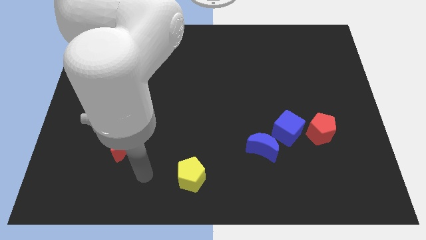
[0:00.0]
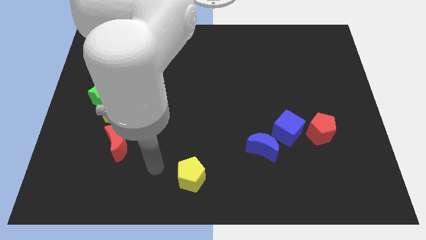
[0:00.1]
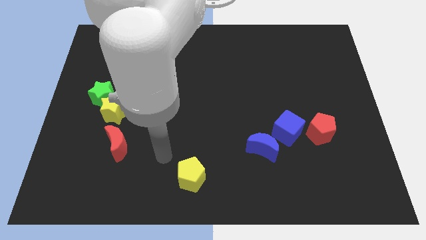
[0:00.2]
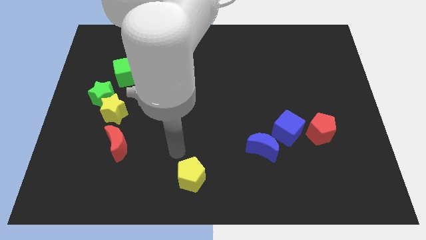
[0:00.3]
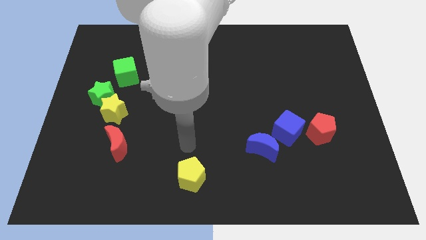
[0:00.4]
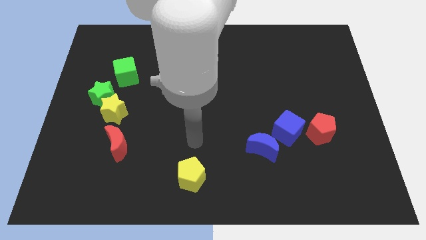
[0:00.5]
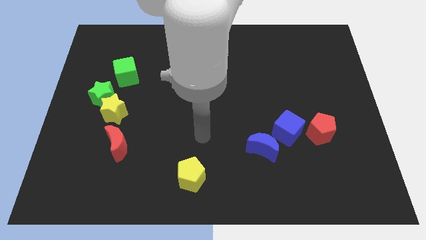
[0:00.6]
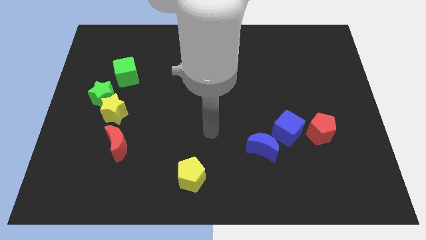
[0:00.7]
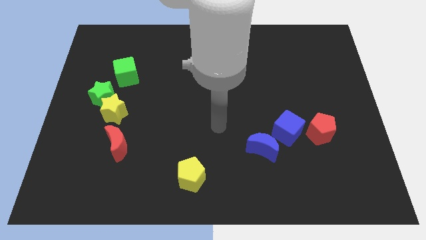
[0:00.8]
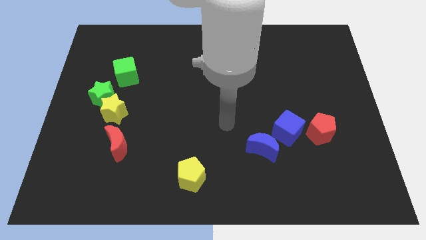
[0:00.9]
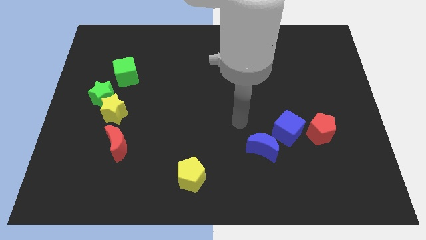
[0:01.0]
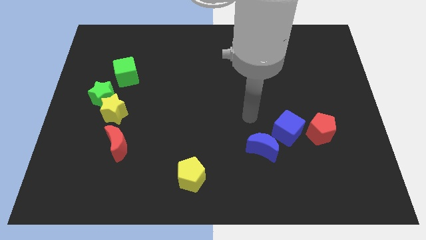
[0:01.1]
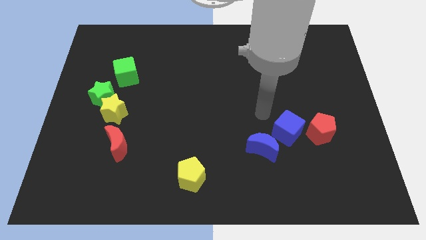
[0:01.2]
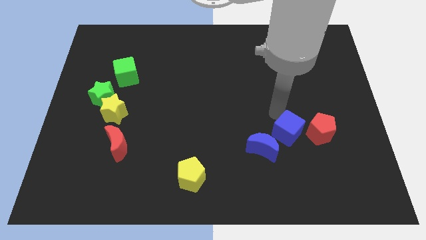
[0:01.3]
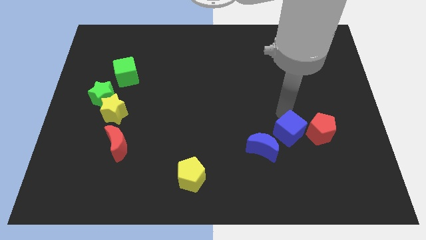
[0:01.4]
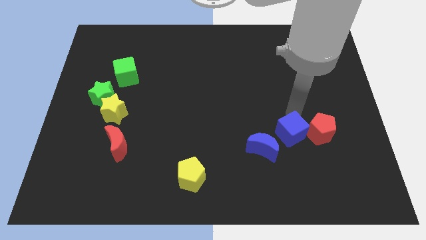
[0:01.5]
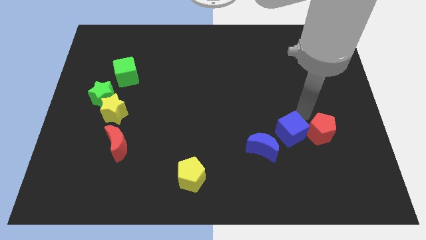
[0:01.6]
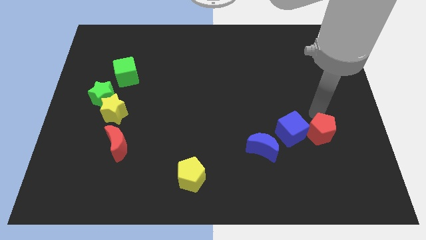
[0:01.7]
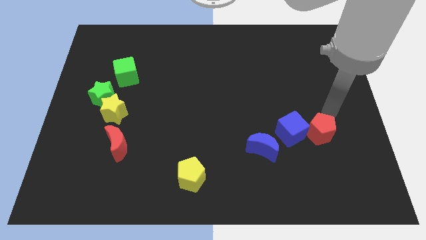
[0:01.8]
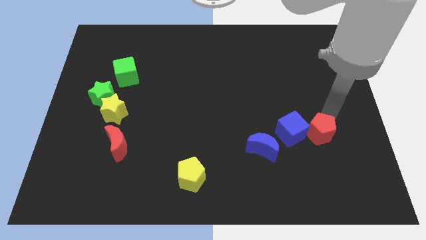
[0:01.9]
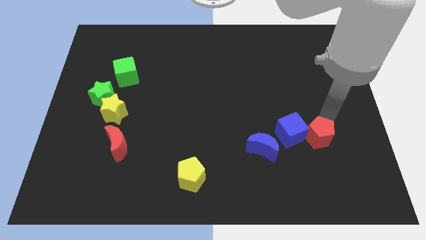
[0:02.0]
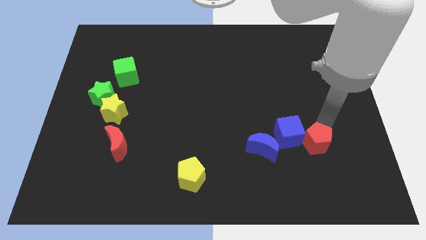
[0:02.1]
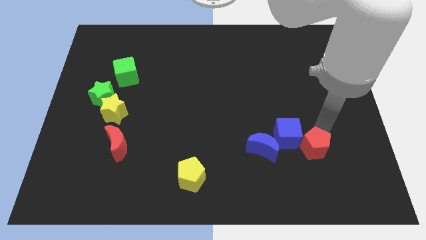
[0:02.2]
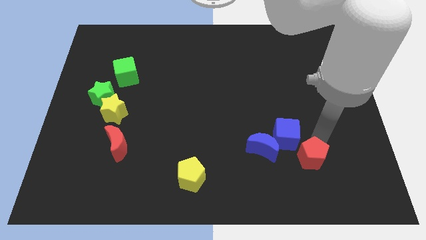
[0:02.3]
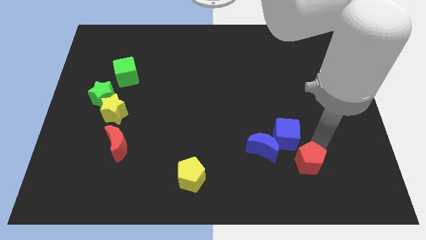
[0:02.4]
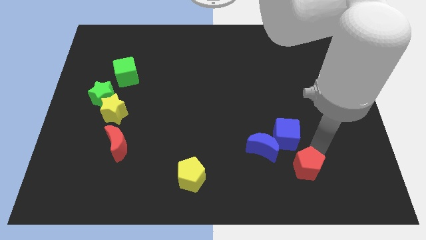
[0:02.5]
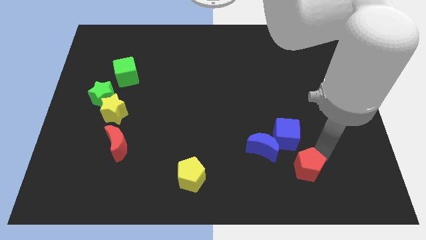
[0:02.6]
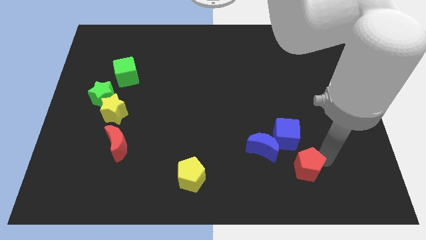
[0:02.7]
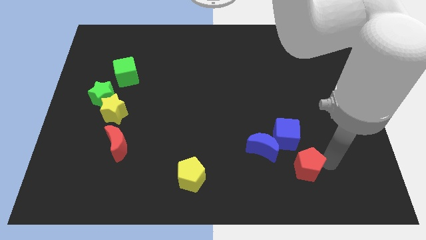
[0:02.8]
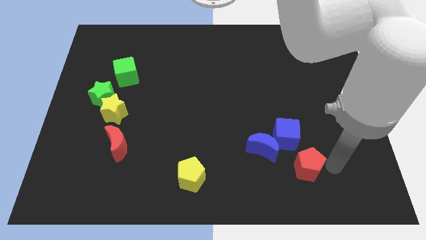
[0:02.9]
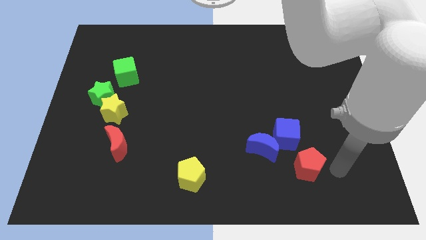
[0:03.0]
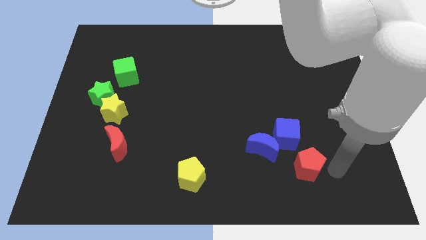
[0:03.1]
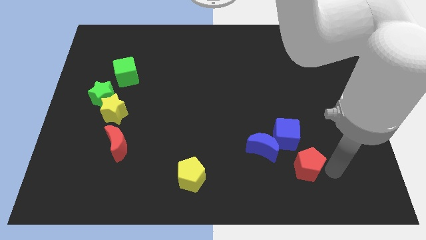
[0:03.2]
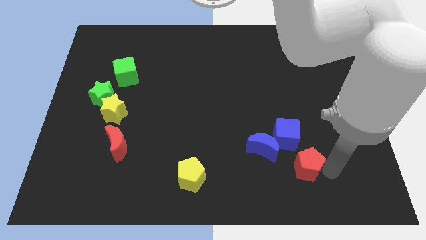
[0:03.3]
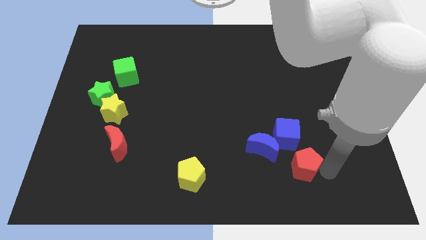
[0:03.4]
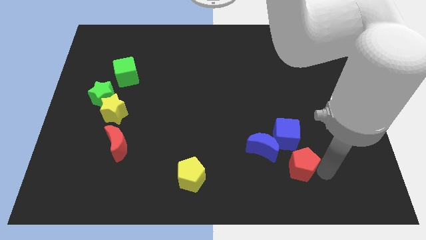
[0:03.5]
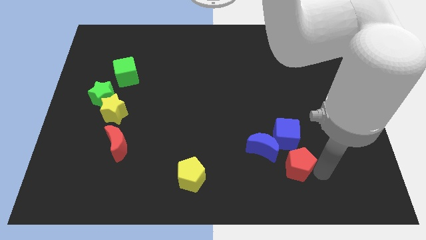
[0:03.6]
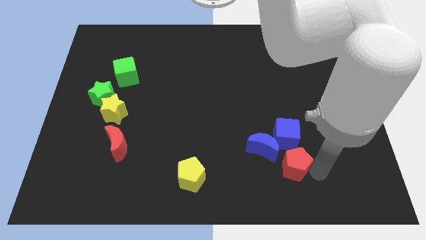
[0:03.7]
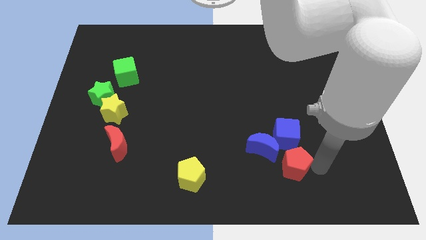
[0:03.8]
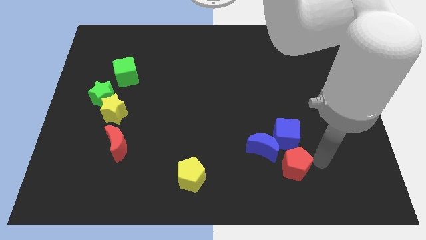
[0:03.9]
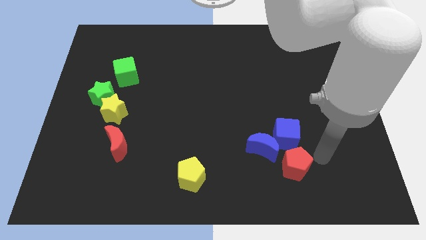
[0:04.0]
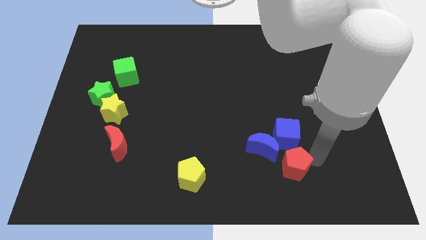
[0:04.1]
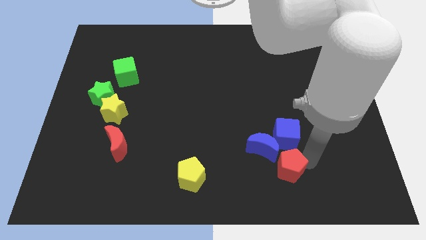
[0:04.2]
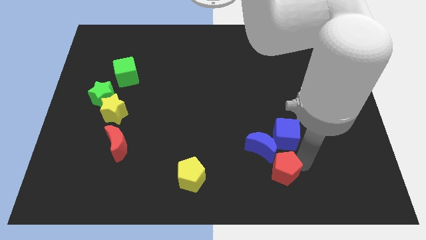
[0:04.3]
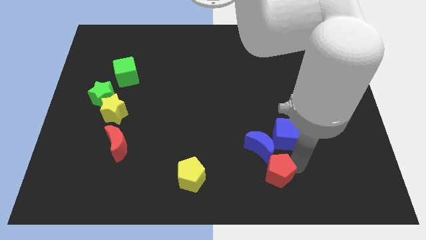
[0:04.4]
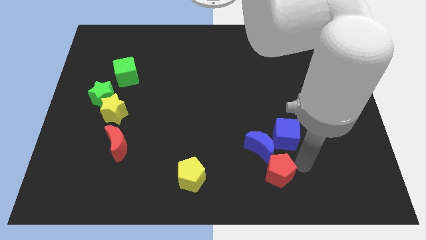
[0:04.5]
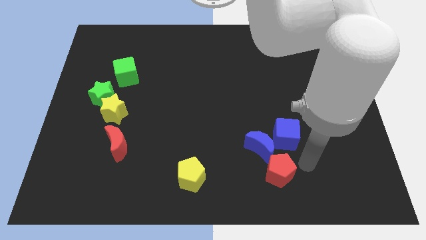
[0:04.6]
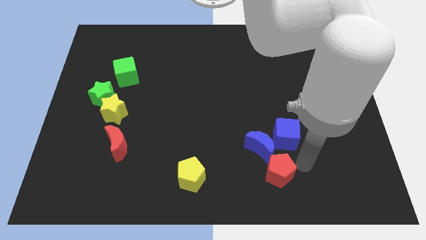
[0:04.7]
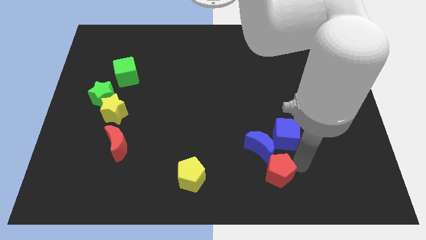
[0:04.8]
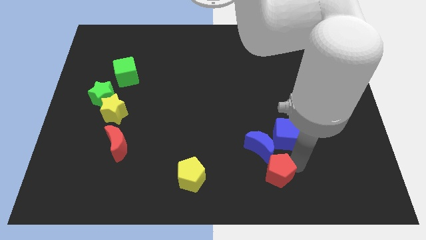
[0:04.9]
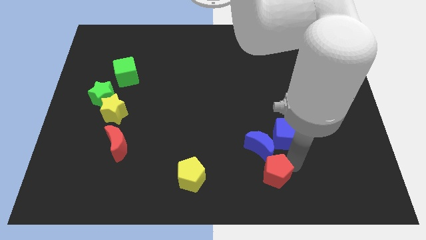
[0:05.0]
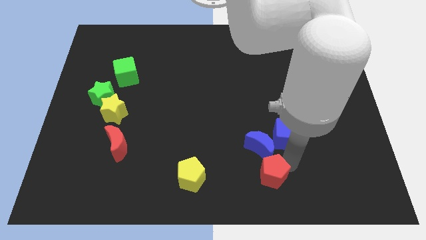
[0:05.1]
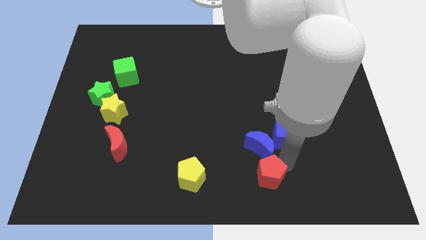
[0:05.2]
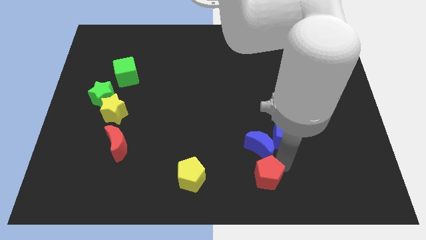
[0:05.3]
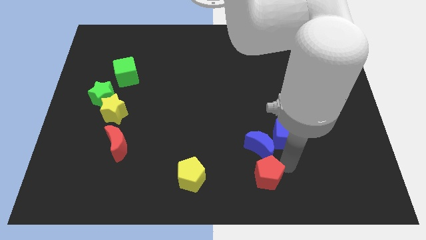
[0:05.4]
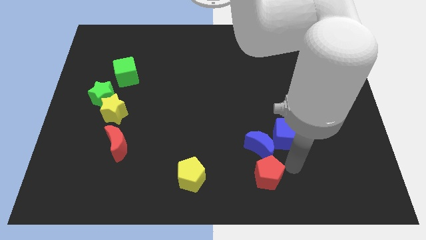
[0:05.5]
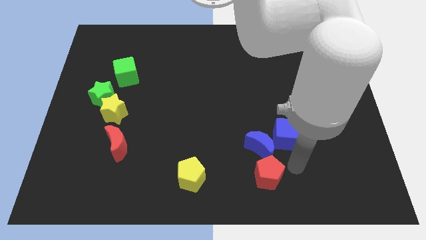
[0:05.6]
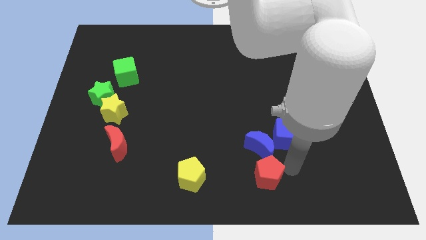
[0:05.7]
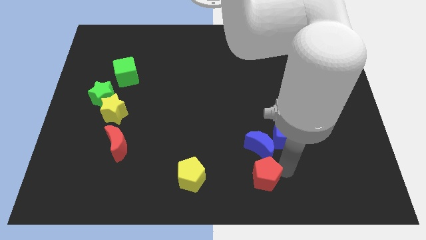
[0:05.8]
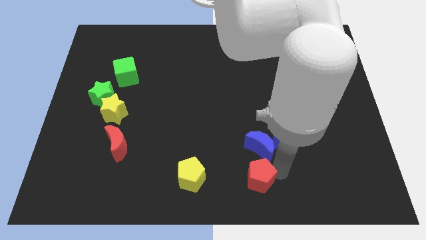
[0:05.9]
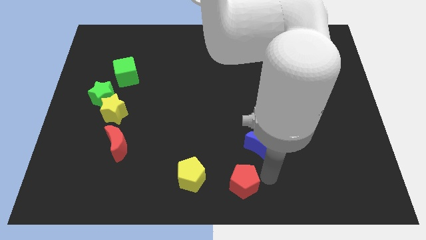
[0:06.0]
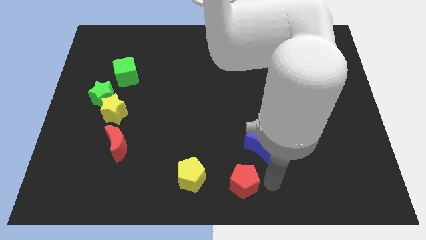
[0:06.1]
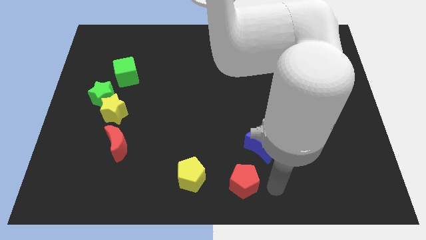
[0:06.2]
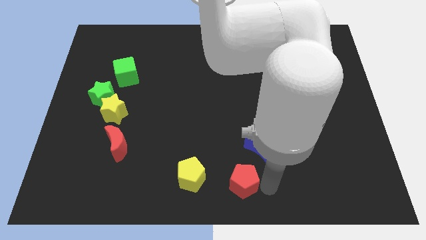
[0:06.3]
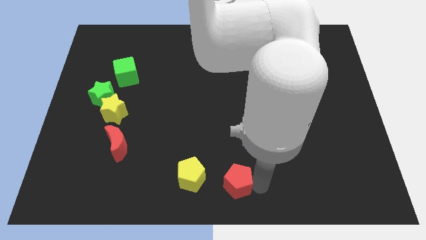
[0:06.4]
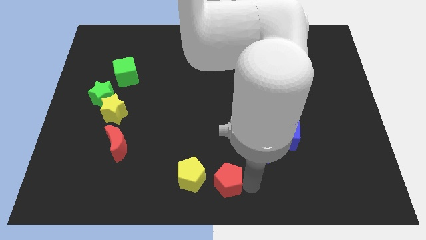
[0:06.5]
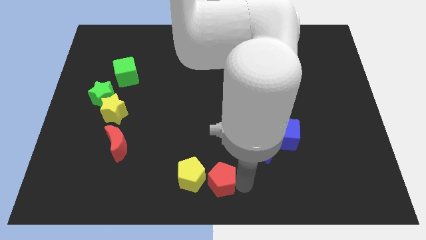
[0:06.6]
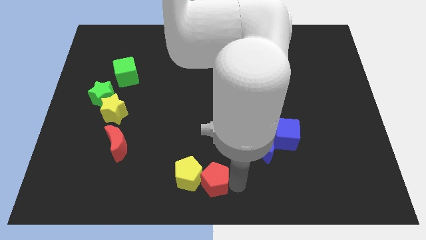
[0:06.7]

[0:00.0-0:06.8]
slide the red pentagon towards the yellow pentagon

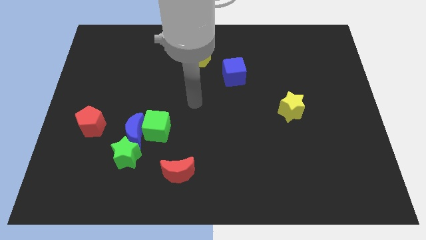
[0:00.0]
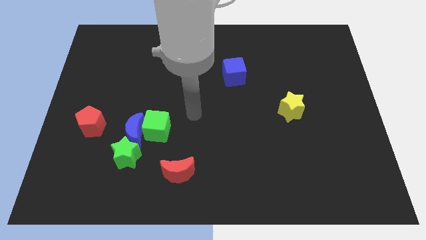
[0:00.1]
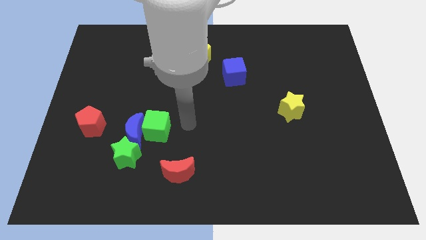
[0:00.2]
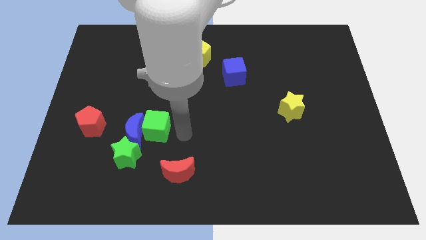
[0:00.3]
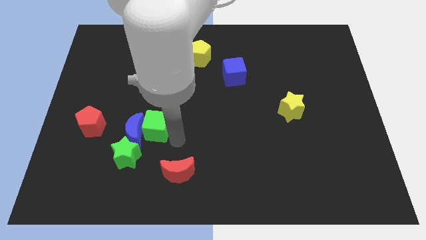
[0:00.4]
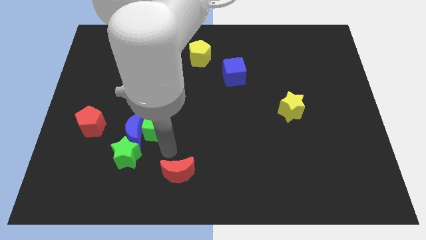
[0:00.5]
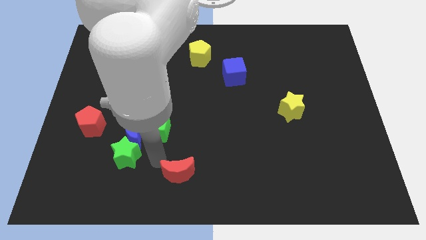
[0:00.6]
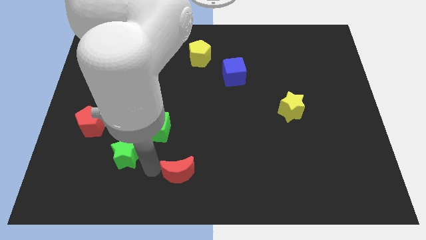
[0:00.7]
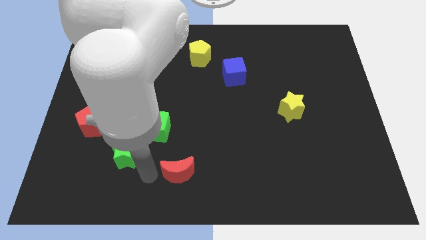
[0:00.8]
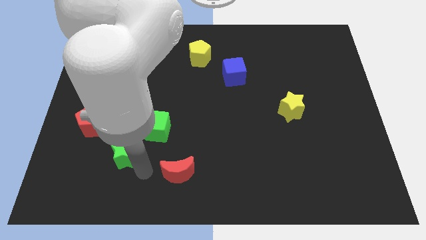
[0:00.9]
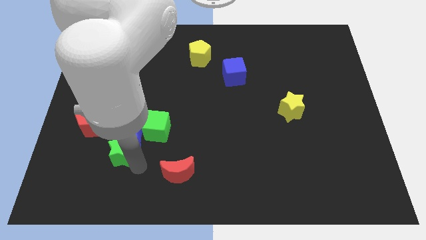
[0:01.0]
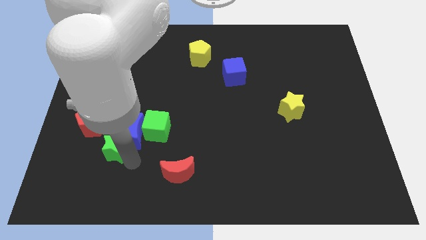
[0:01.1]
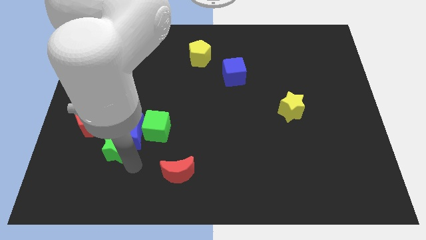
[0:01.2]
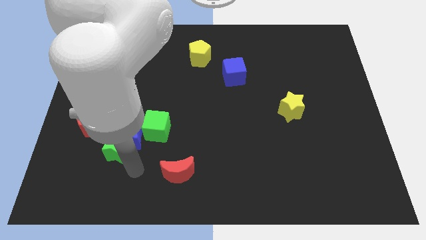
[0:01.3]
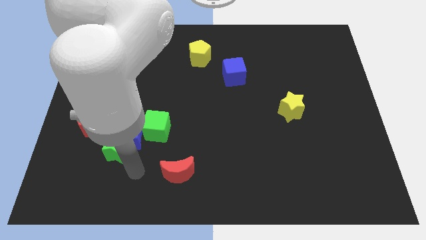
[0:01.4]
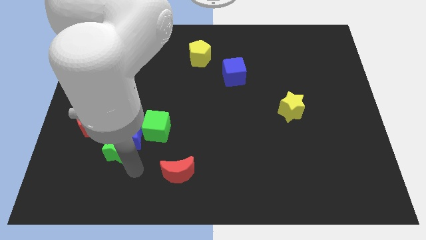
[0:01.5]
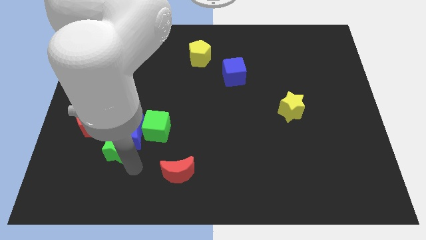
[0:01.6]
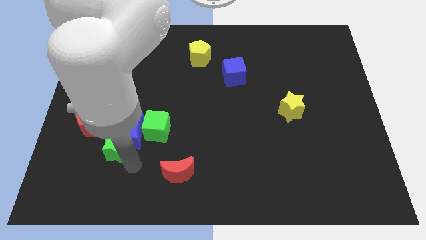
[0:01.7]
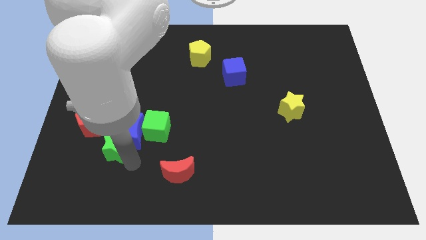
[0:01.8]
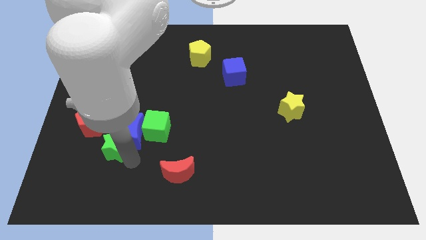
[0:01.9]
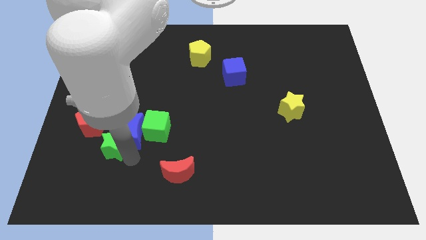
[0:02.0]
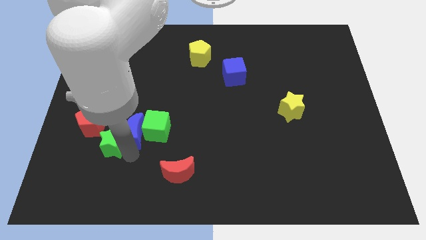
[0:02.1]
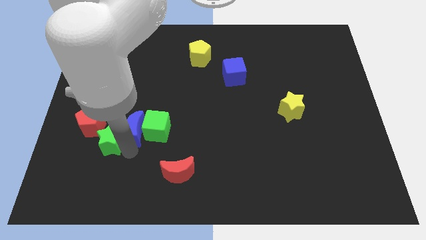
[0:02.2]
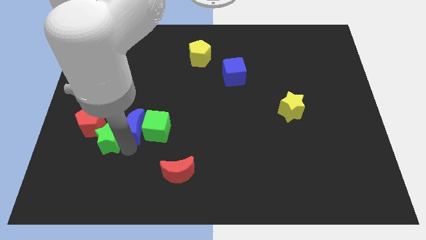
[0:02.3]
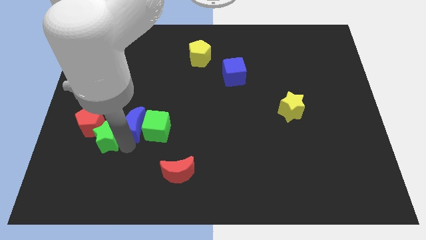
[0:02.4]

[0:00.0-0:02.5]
slide the green star close to the red pentagon
